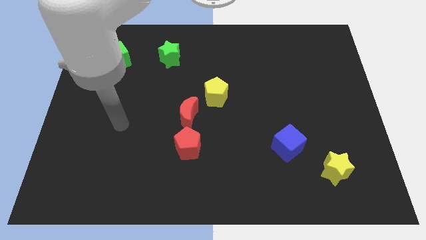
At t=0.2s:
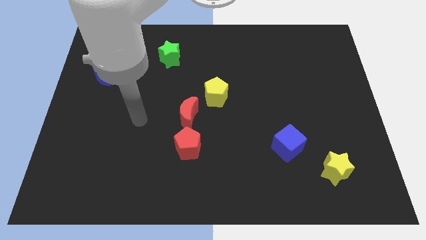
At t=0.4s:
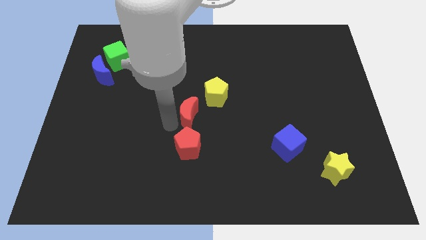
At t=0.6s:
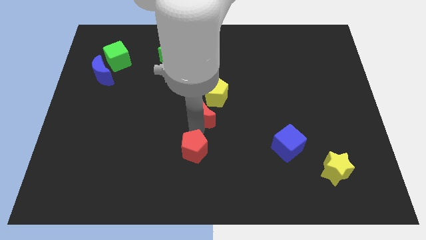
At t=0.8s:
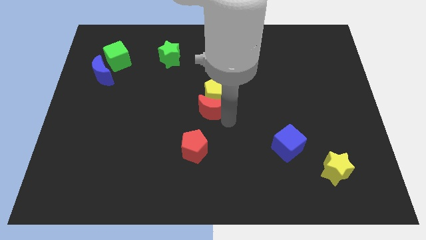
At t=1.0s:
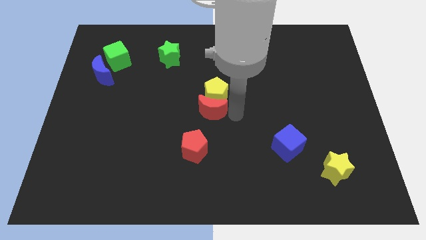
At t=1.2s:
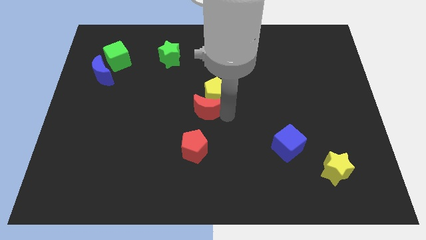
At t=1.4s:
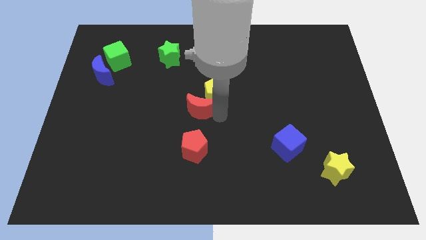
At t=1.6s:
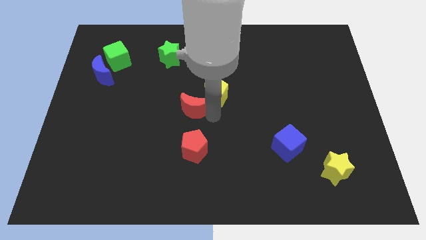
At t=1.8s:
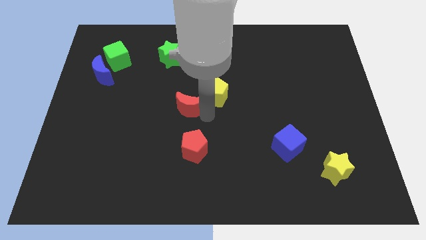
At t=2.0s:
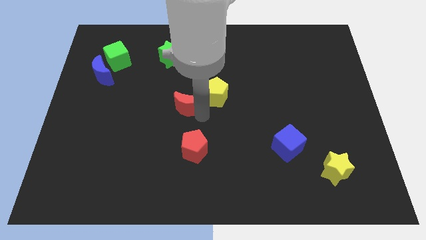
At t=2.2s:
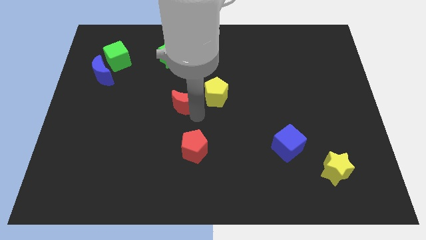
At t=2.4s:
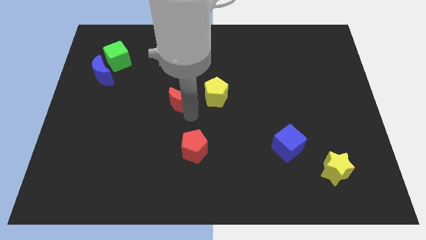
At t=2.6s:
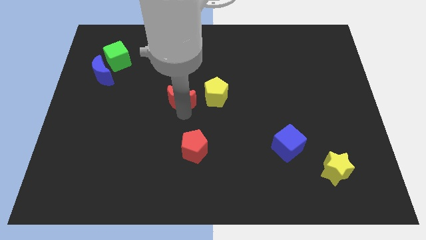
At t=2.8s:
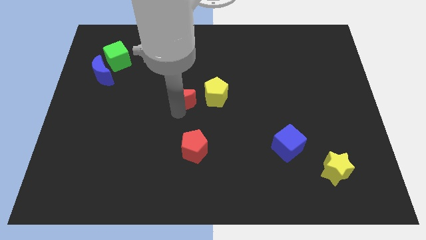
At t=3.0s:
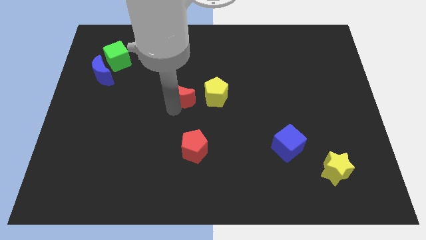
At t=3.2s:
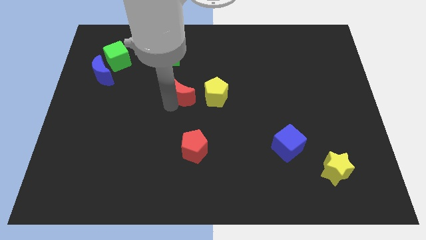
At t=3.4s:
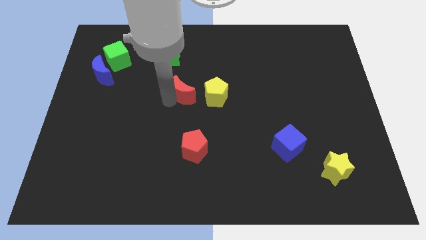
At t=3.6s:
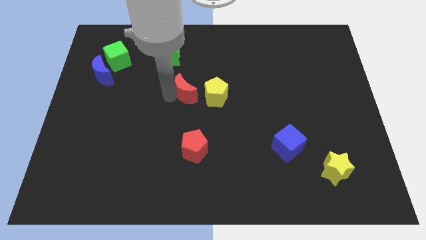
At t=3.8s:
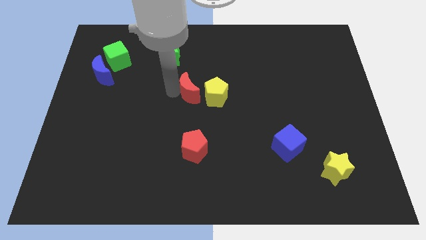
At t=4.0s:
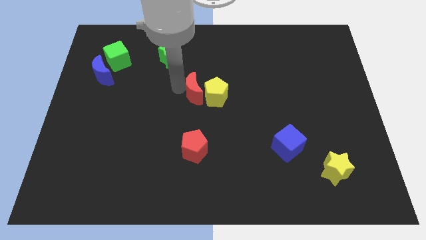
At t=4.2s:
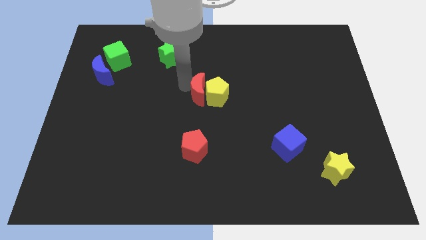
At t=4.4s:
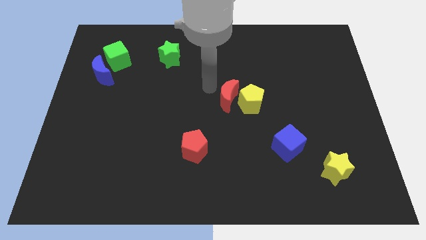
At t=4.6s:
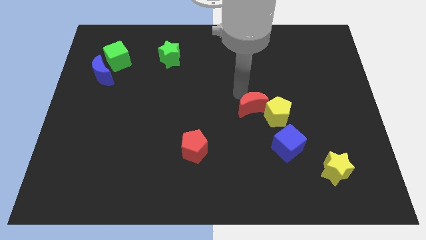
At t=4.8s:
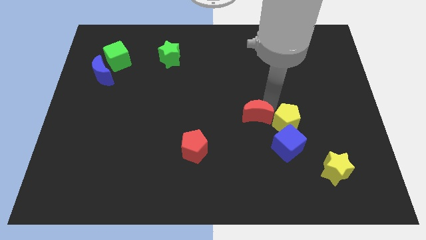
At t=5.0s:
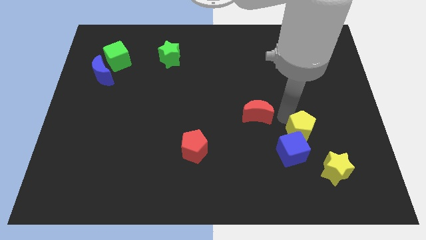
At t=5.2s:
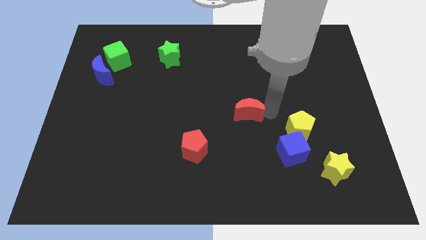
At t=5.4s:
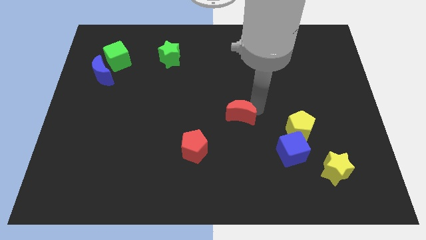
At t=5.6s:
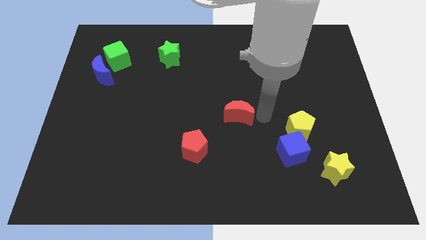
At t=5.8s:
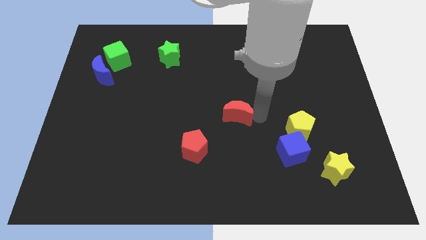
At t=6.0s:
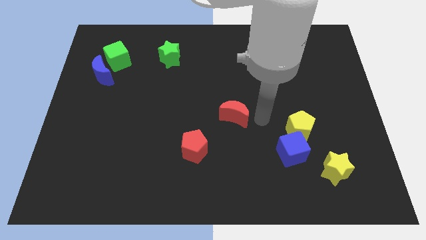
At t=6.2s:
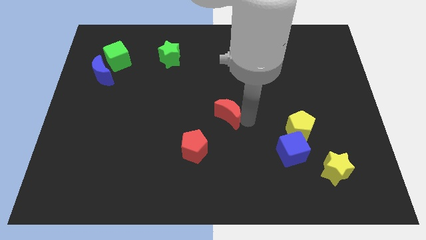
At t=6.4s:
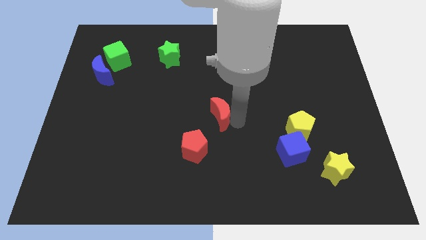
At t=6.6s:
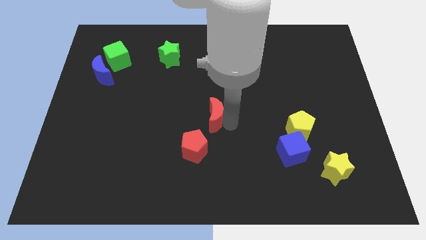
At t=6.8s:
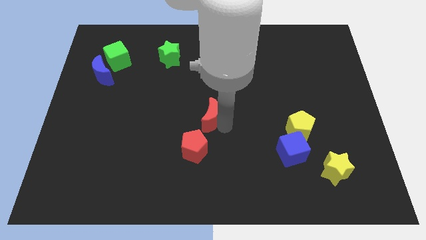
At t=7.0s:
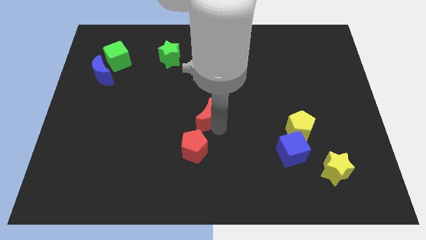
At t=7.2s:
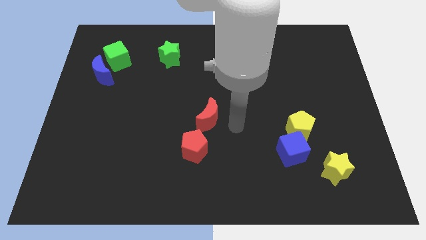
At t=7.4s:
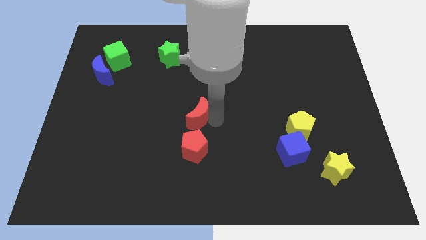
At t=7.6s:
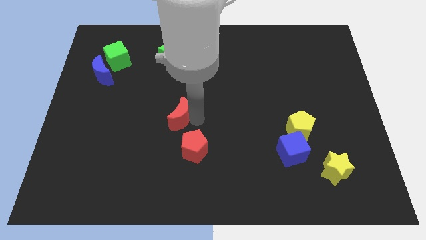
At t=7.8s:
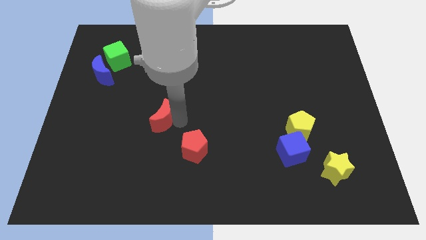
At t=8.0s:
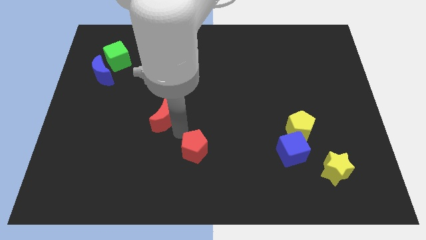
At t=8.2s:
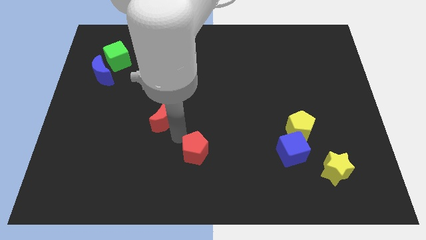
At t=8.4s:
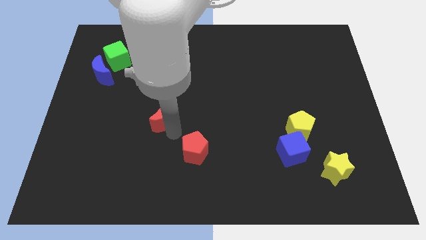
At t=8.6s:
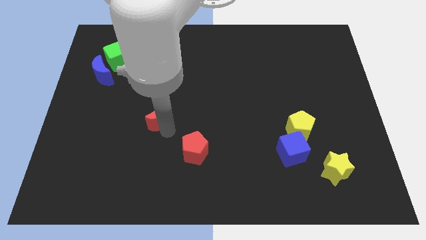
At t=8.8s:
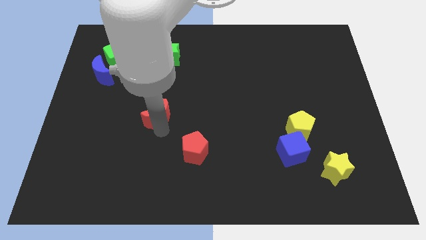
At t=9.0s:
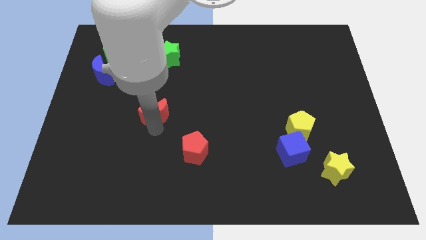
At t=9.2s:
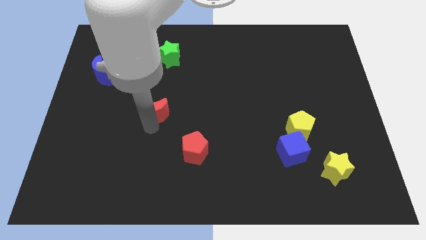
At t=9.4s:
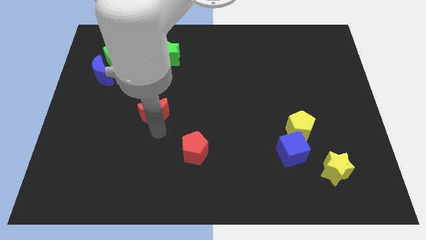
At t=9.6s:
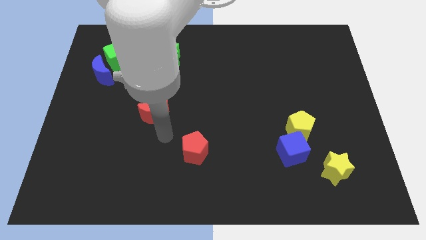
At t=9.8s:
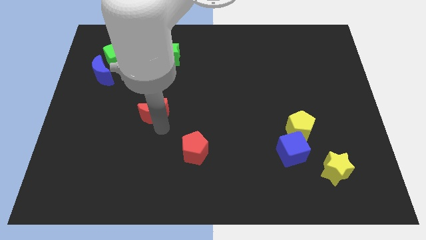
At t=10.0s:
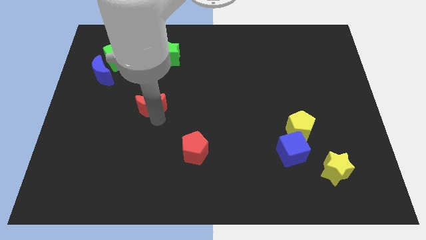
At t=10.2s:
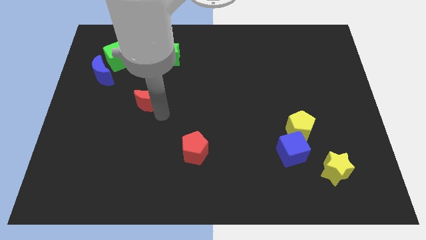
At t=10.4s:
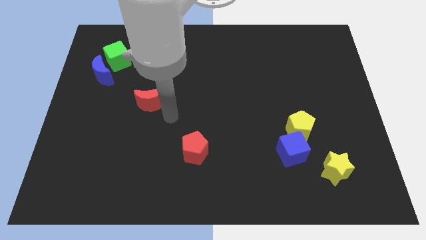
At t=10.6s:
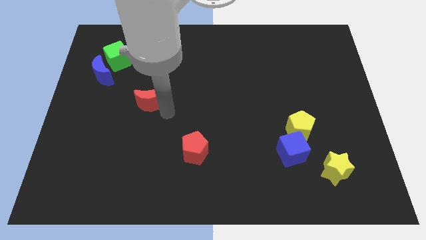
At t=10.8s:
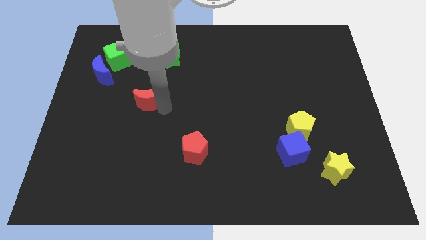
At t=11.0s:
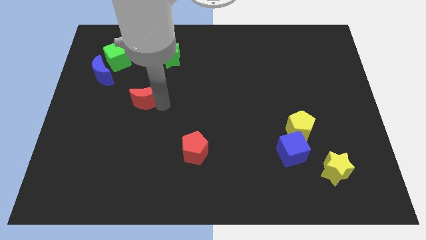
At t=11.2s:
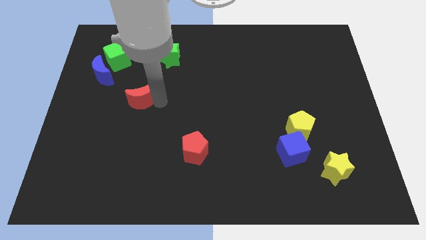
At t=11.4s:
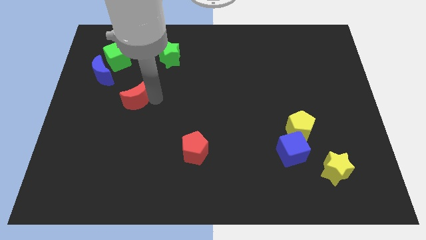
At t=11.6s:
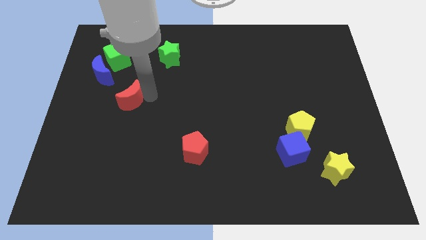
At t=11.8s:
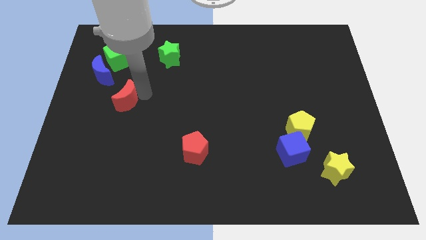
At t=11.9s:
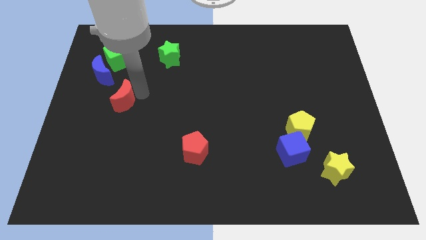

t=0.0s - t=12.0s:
push the red moon to the bottom of the green cube
